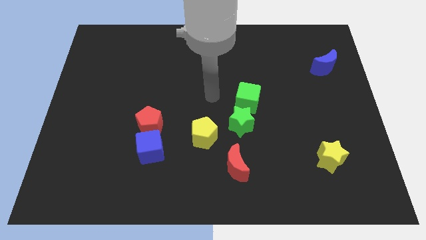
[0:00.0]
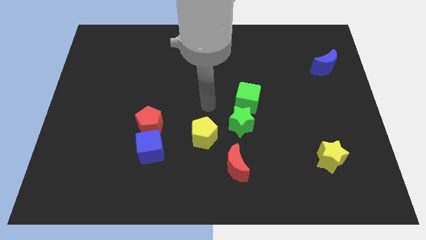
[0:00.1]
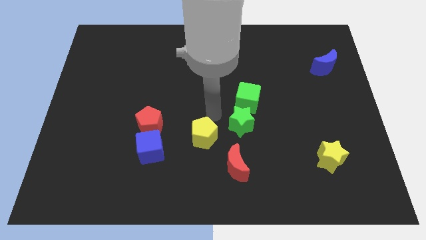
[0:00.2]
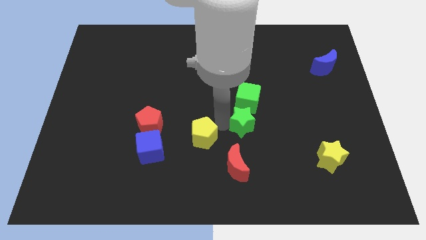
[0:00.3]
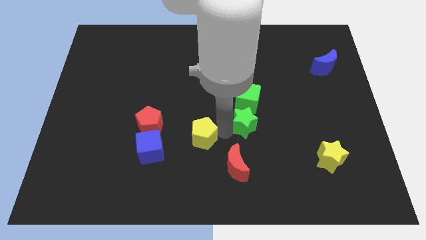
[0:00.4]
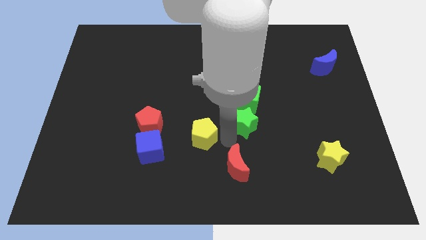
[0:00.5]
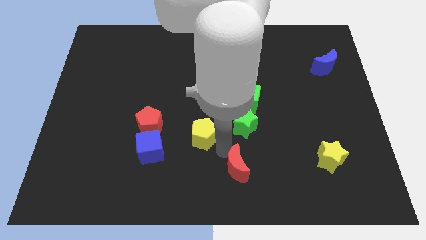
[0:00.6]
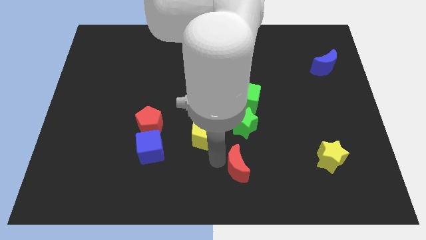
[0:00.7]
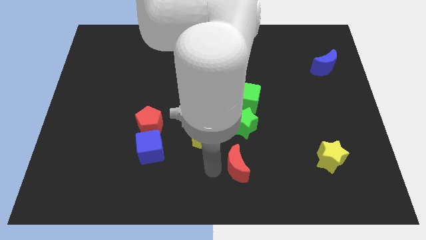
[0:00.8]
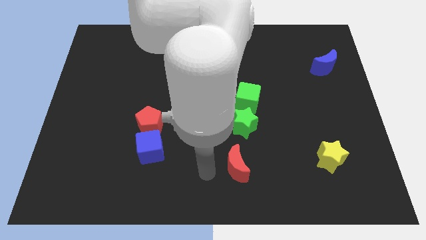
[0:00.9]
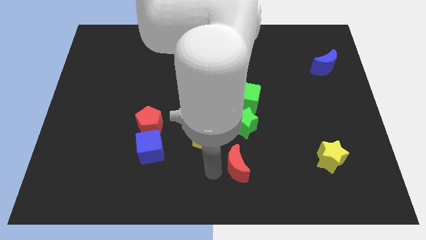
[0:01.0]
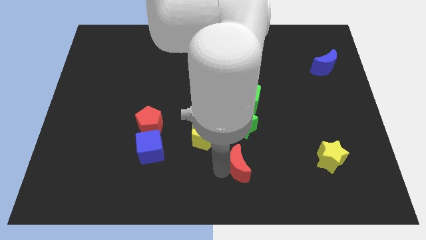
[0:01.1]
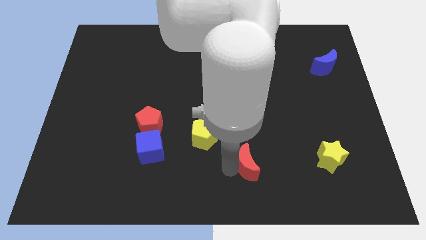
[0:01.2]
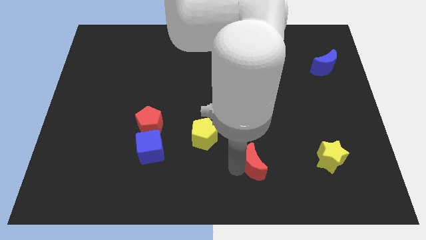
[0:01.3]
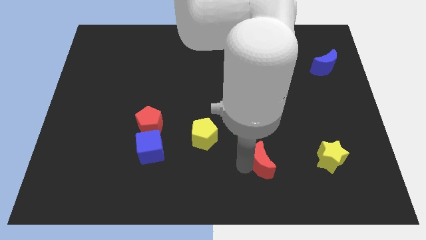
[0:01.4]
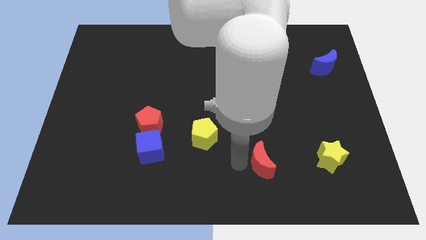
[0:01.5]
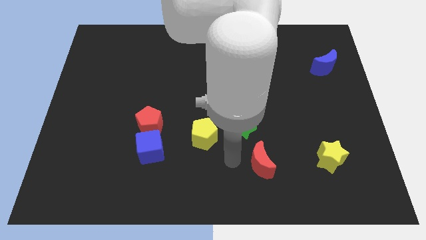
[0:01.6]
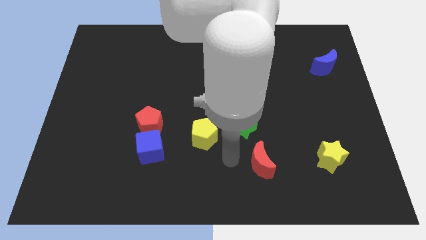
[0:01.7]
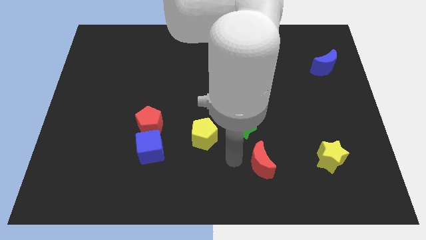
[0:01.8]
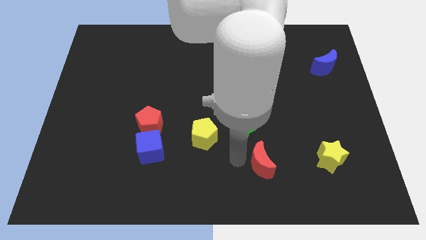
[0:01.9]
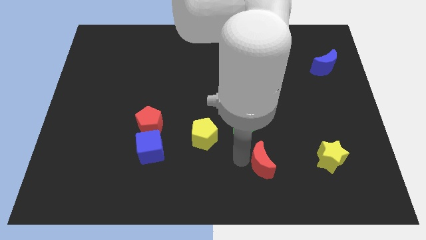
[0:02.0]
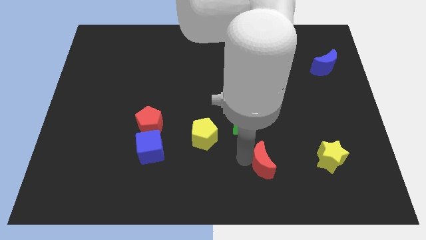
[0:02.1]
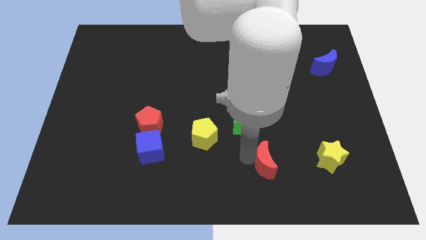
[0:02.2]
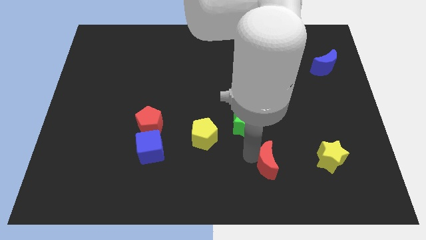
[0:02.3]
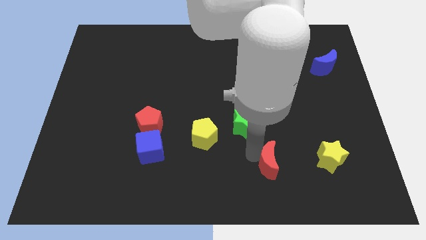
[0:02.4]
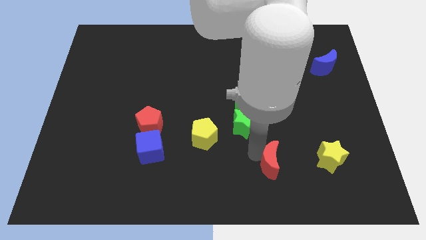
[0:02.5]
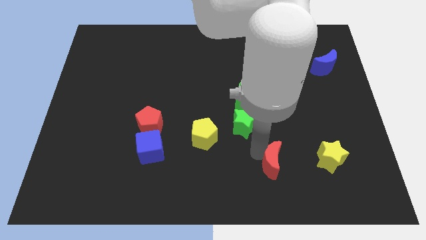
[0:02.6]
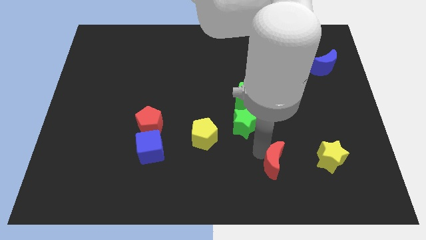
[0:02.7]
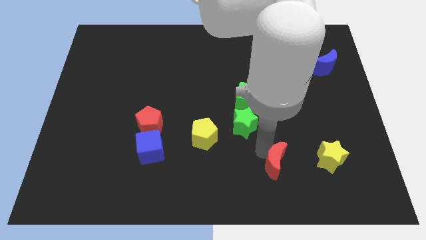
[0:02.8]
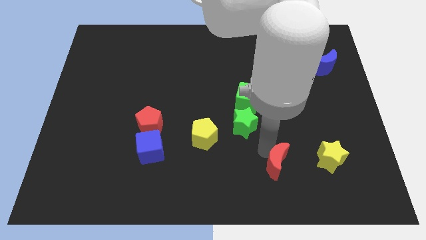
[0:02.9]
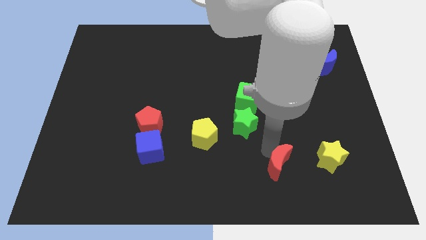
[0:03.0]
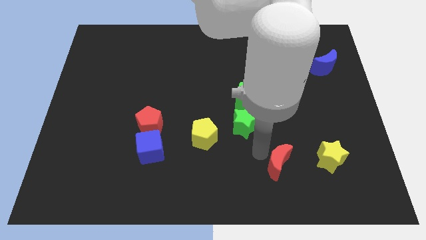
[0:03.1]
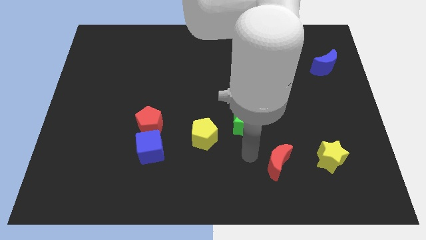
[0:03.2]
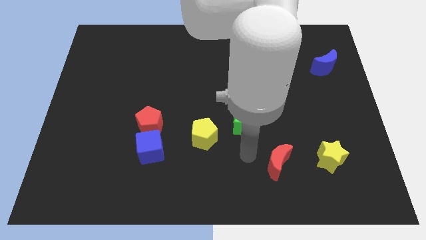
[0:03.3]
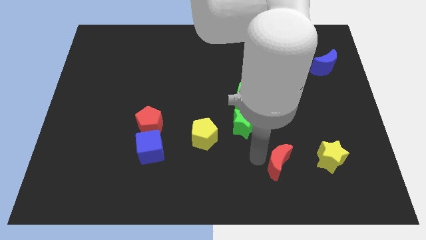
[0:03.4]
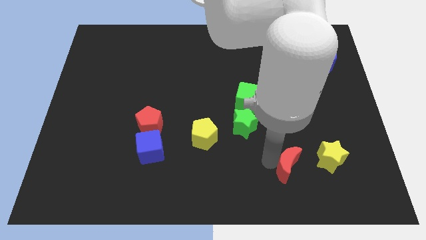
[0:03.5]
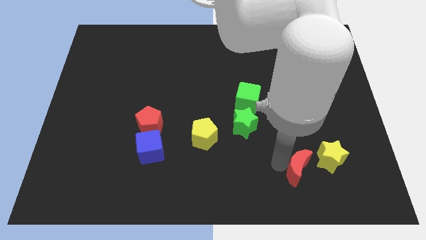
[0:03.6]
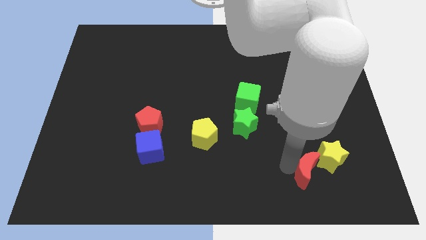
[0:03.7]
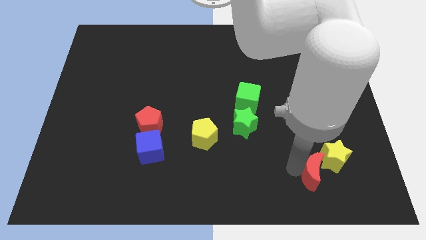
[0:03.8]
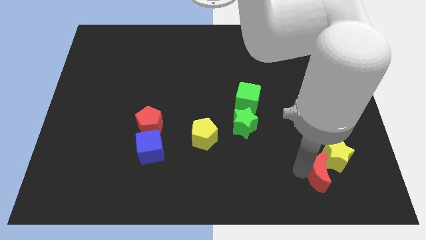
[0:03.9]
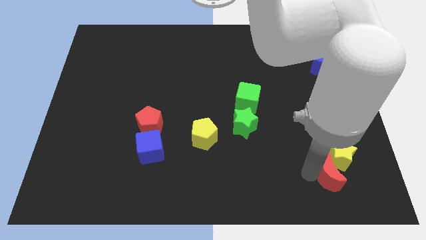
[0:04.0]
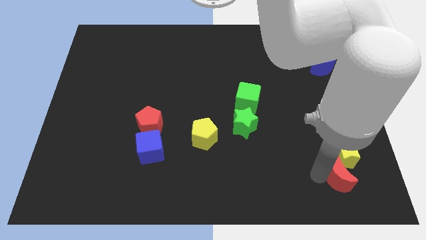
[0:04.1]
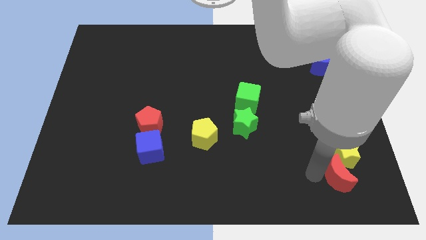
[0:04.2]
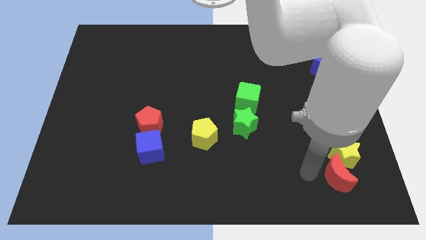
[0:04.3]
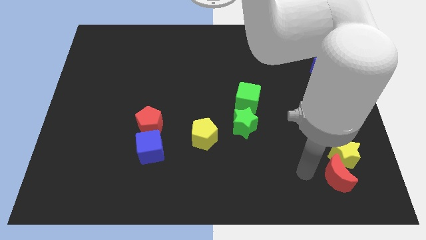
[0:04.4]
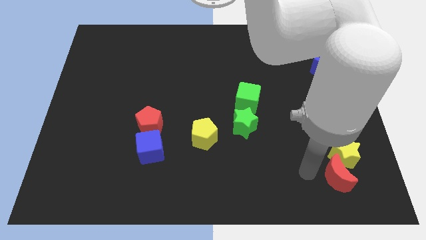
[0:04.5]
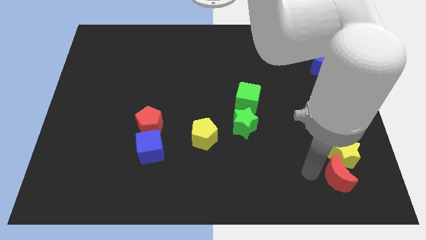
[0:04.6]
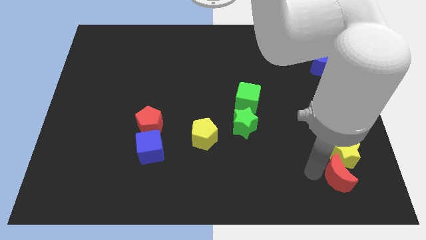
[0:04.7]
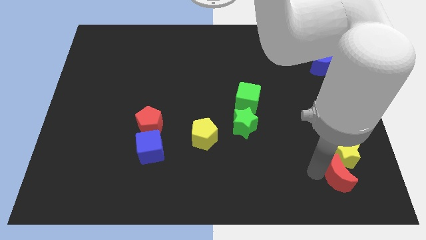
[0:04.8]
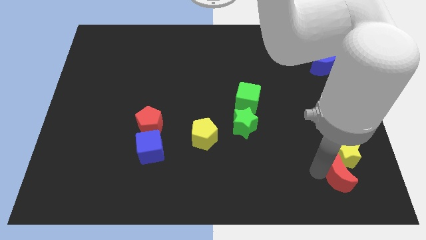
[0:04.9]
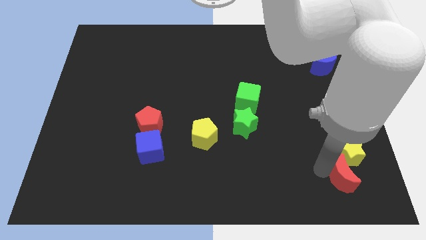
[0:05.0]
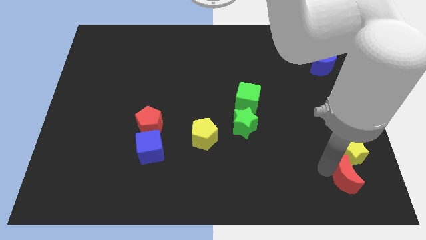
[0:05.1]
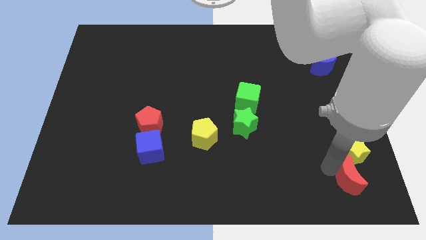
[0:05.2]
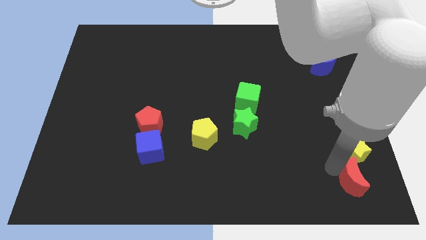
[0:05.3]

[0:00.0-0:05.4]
push the red moon to the bottom right
